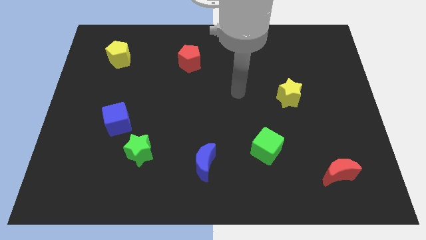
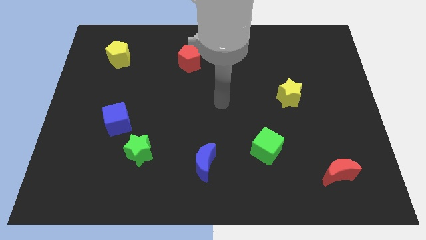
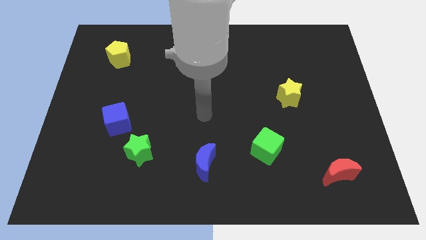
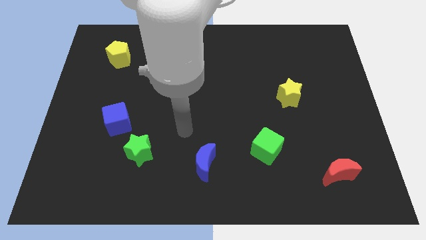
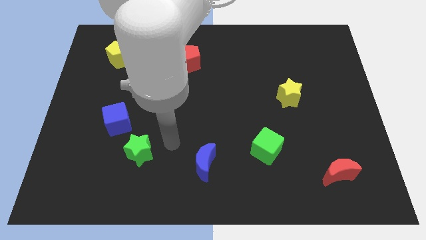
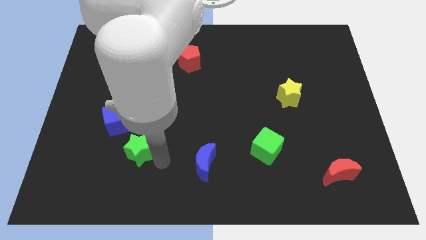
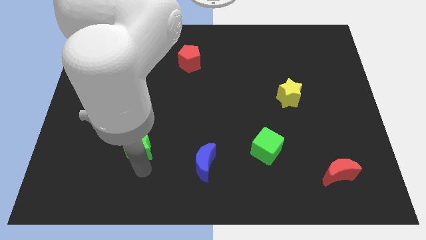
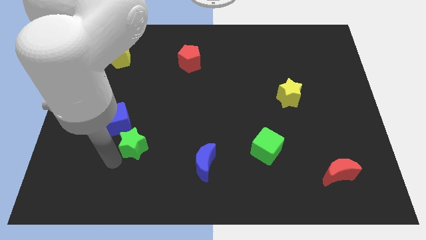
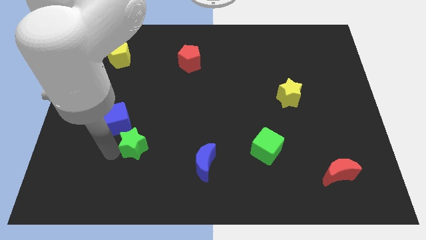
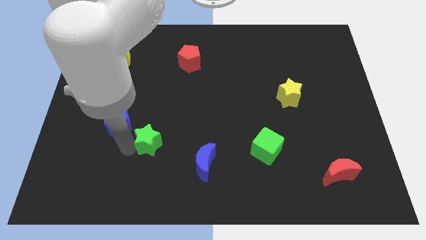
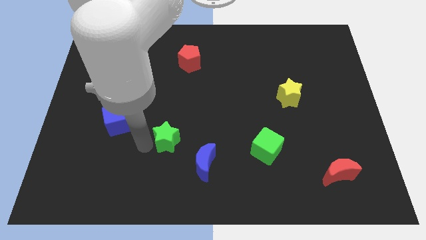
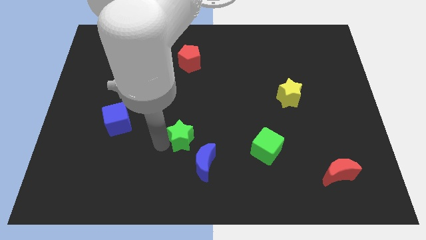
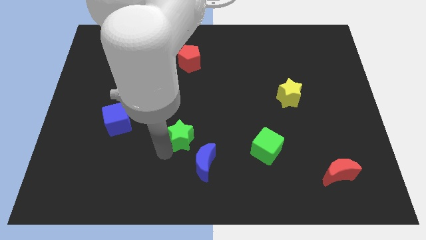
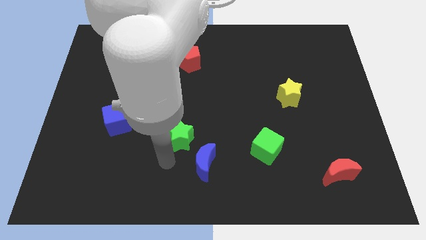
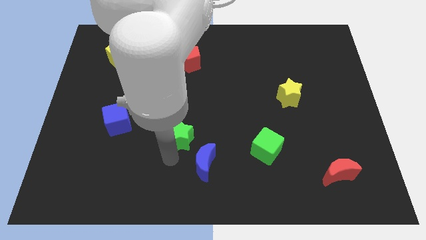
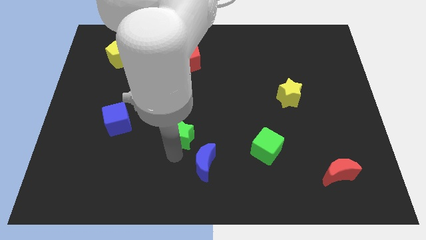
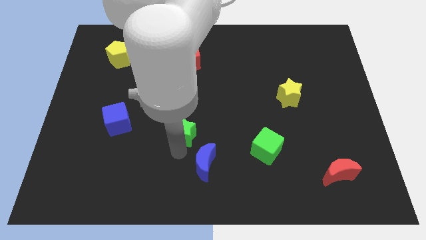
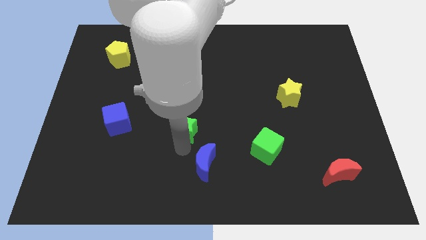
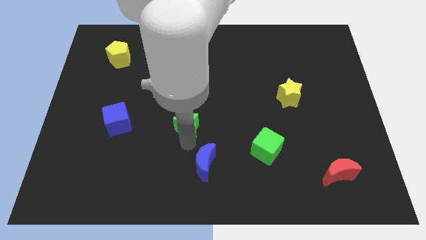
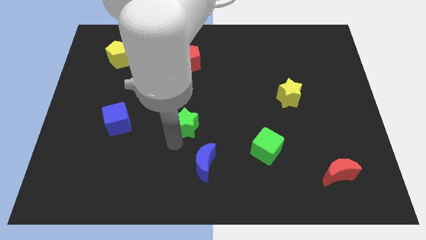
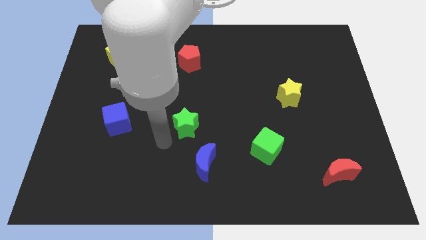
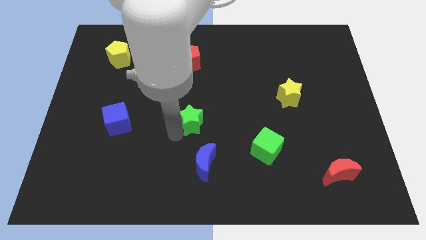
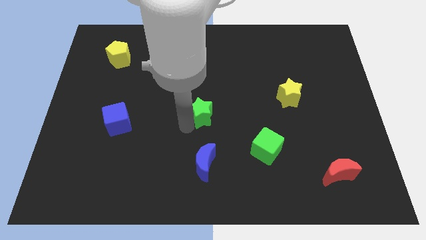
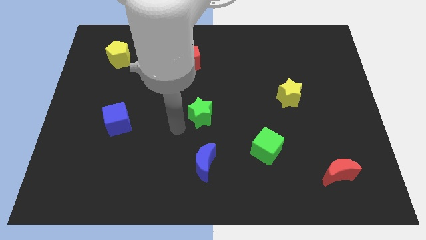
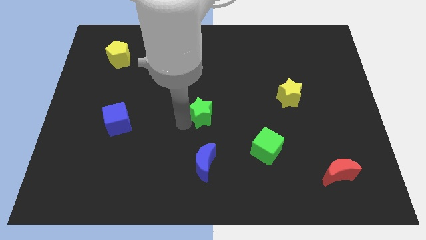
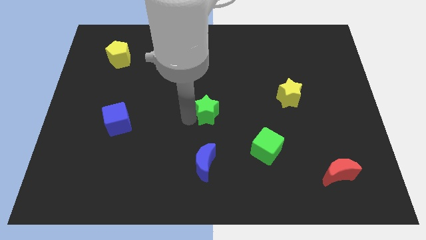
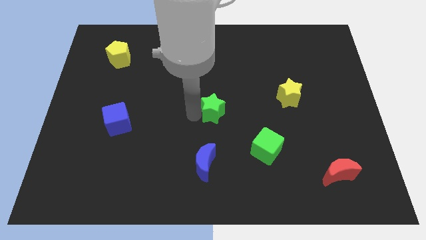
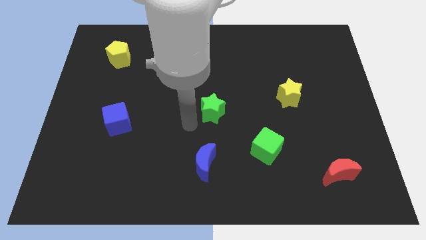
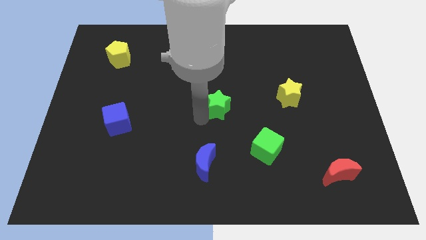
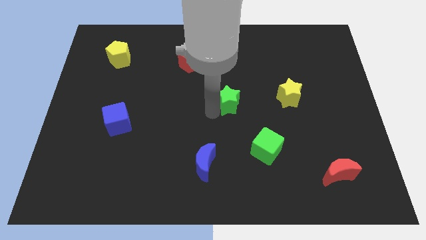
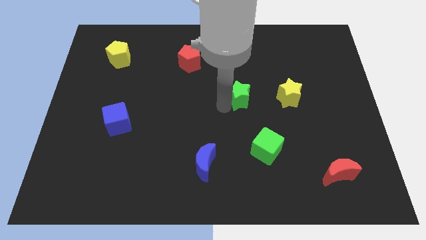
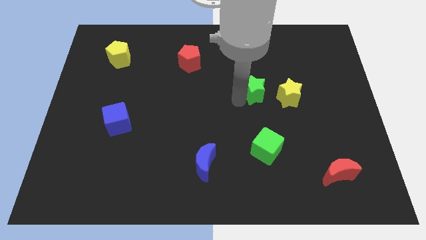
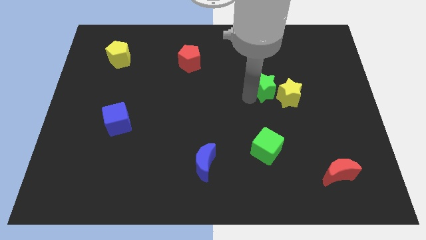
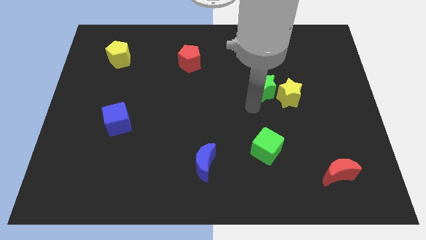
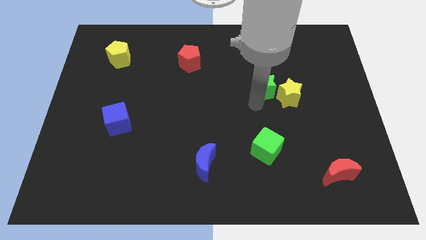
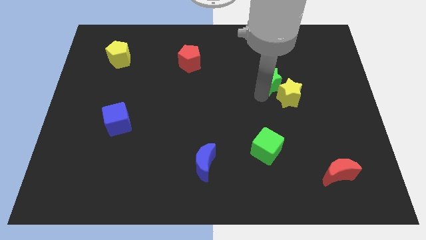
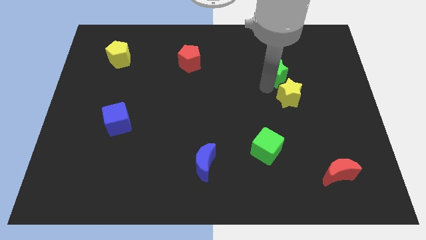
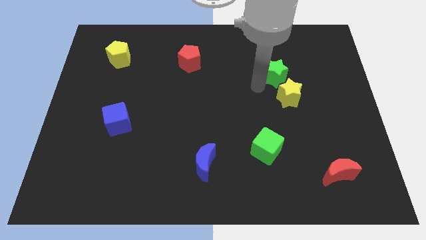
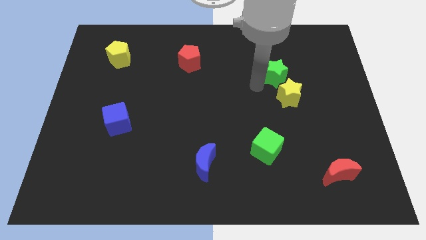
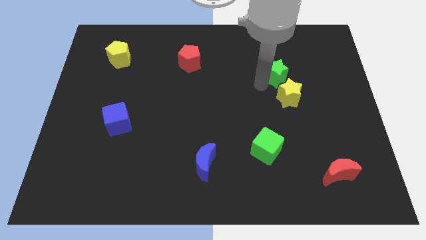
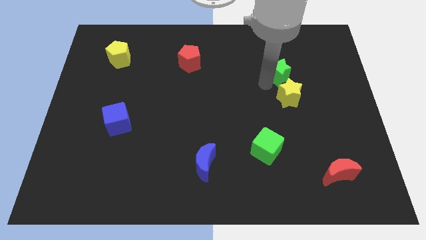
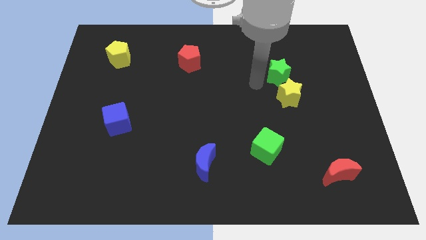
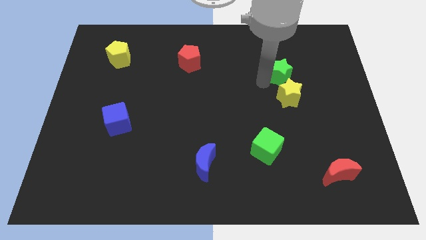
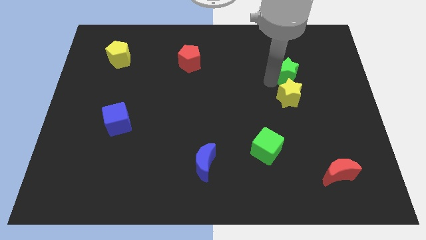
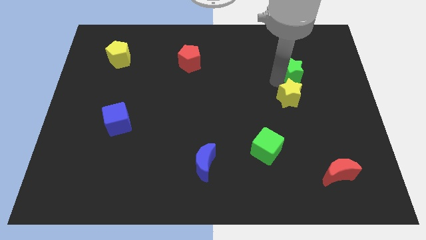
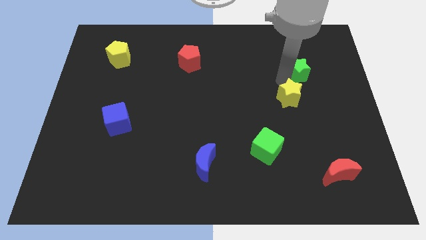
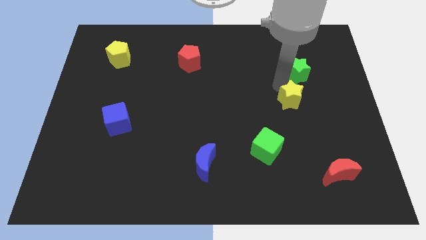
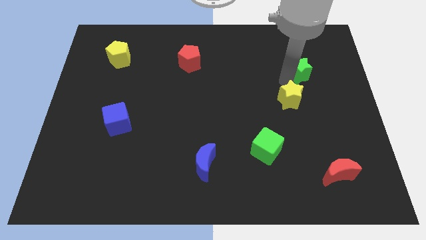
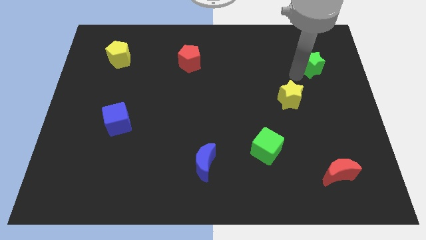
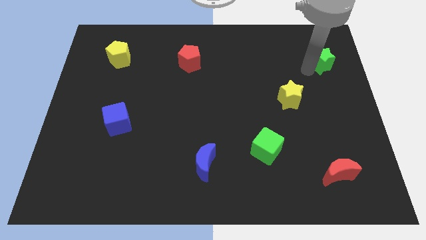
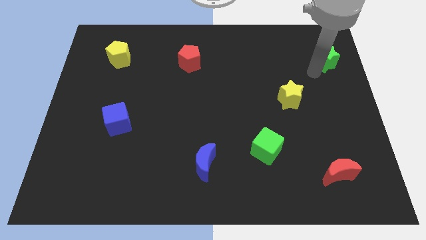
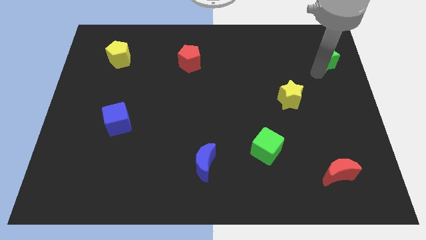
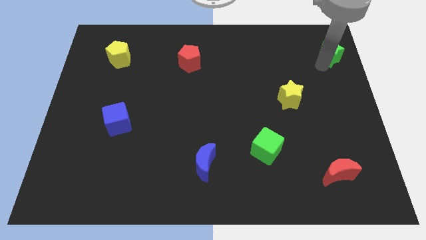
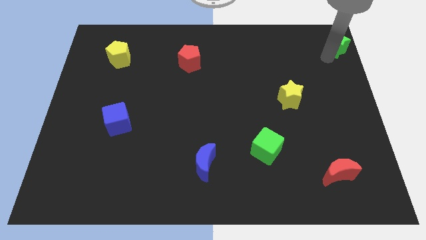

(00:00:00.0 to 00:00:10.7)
slide the green star to the upper right corner
